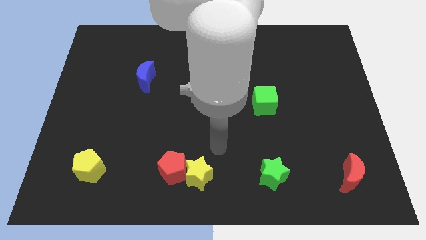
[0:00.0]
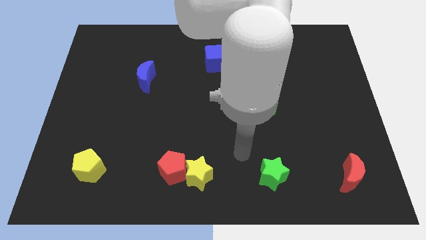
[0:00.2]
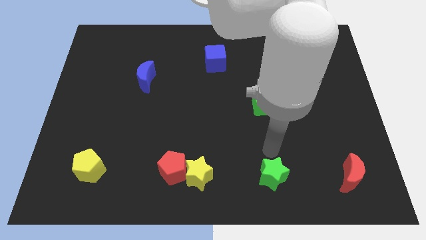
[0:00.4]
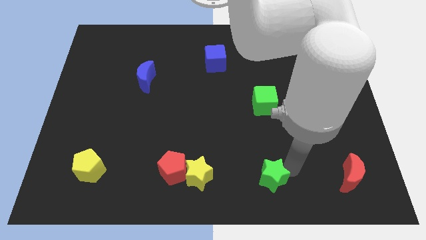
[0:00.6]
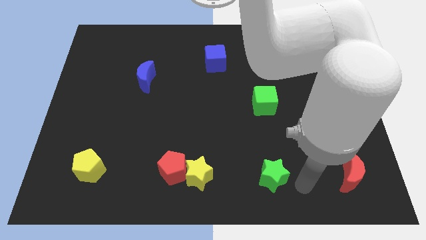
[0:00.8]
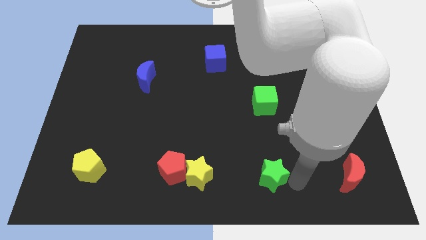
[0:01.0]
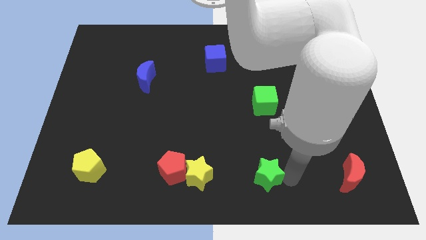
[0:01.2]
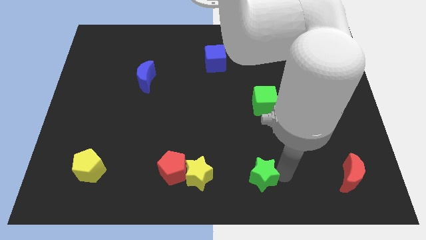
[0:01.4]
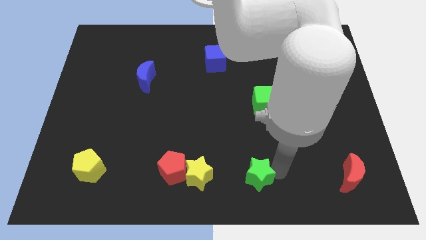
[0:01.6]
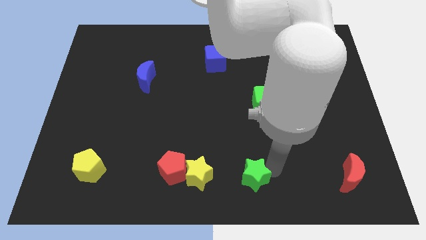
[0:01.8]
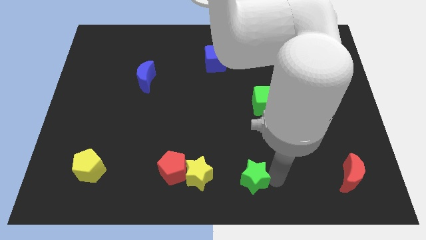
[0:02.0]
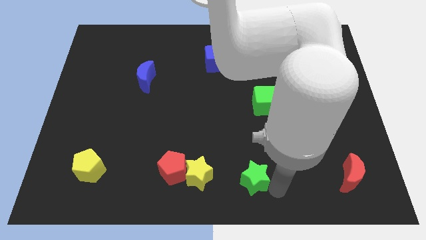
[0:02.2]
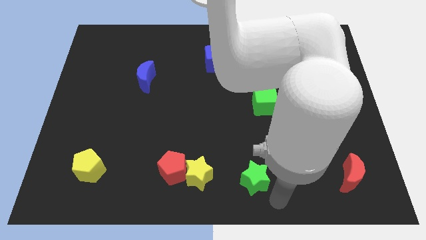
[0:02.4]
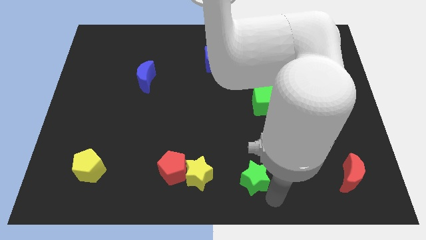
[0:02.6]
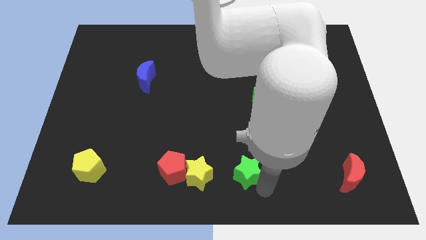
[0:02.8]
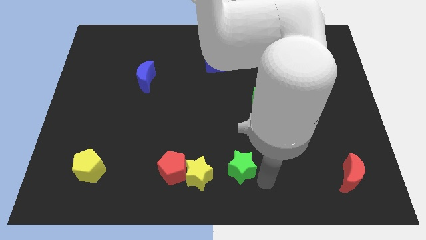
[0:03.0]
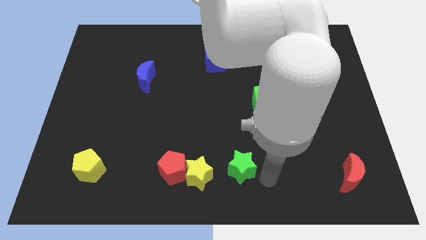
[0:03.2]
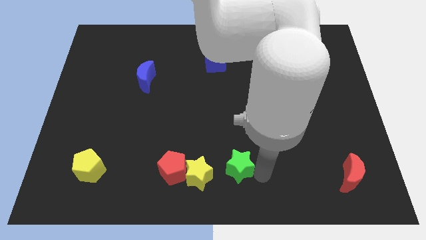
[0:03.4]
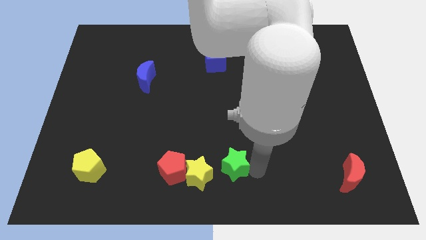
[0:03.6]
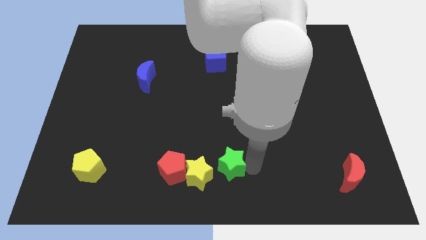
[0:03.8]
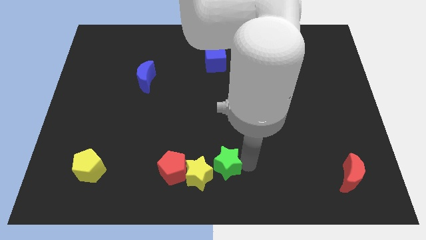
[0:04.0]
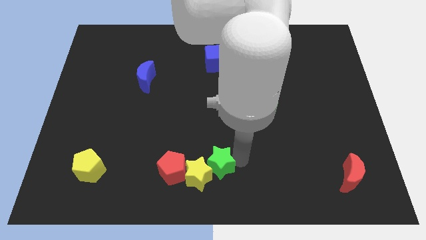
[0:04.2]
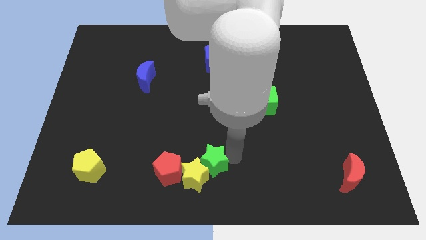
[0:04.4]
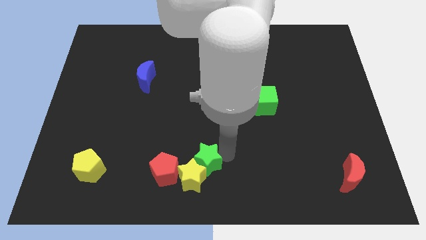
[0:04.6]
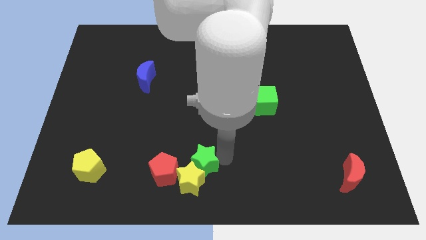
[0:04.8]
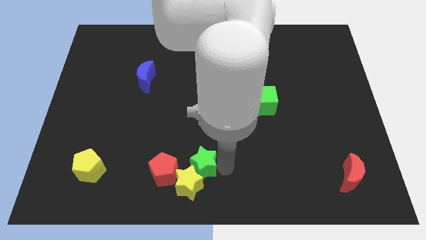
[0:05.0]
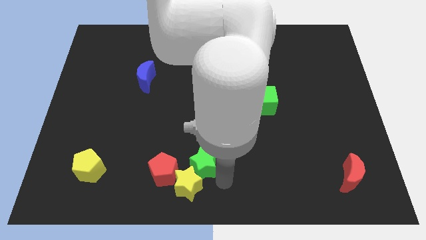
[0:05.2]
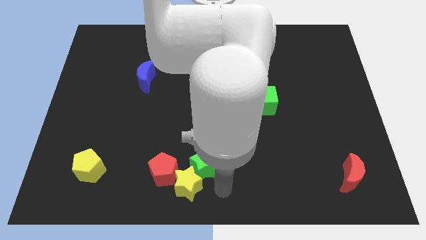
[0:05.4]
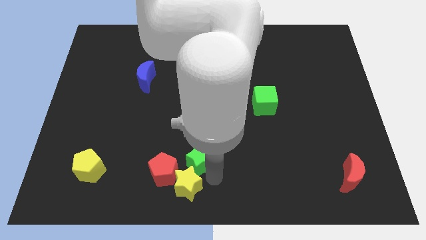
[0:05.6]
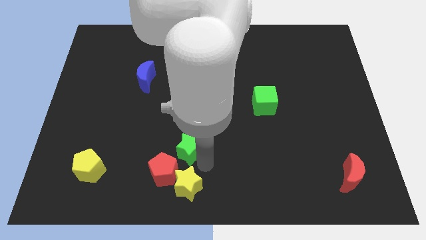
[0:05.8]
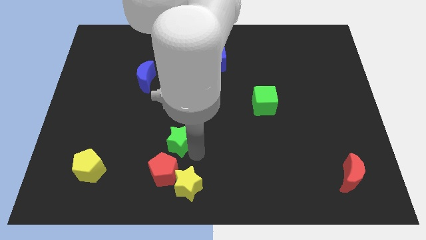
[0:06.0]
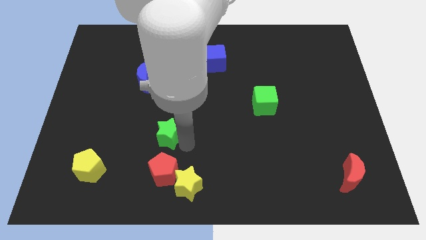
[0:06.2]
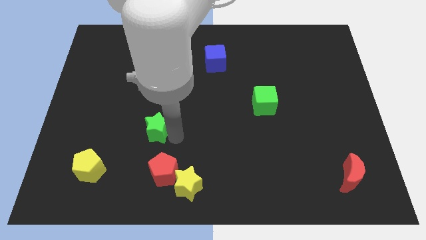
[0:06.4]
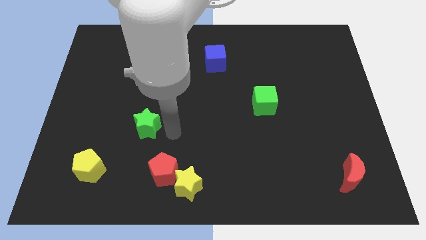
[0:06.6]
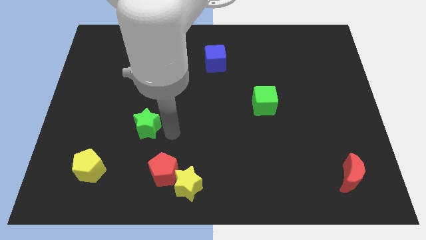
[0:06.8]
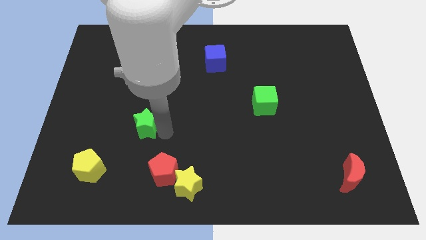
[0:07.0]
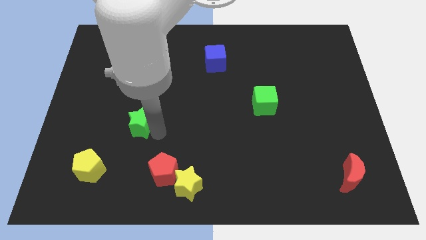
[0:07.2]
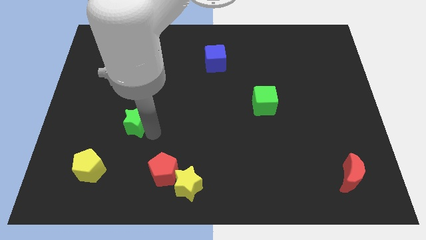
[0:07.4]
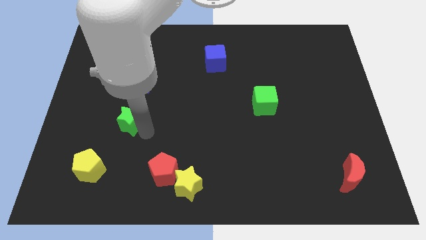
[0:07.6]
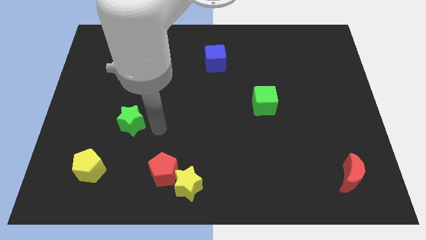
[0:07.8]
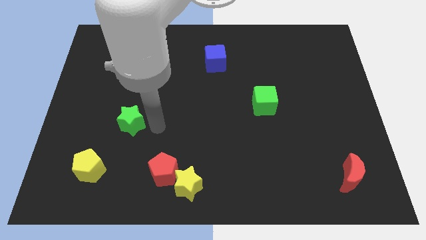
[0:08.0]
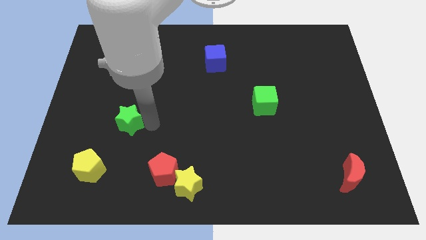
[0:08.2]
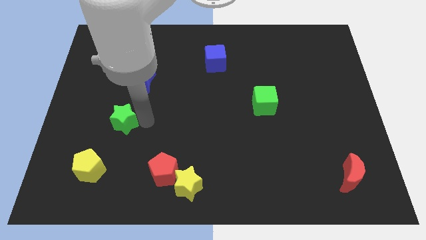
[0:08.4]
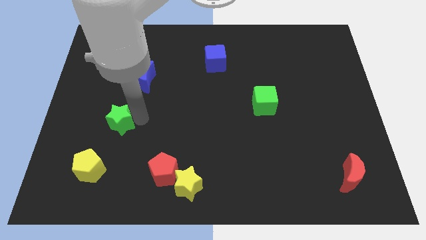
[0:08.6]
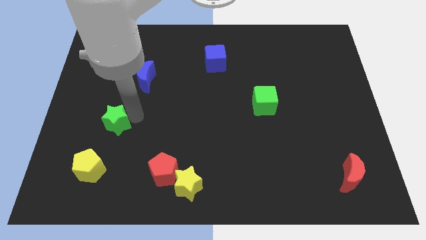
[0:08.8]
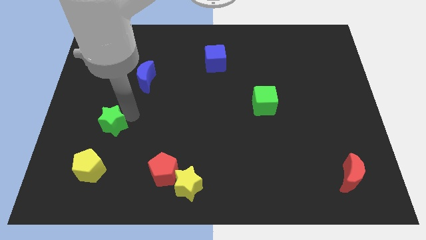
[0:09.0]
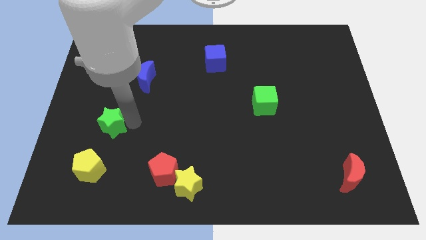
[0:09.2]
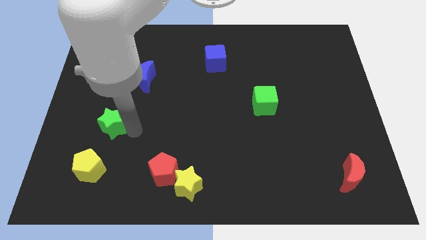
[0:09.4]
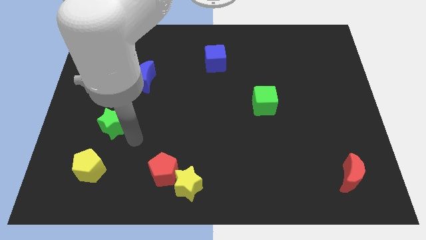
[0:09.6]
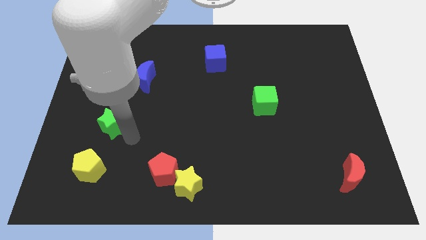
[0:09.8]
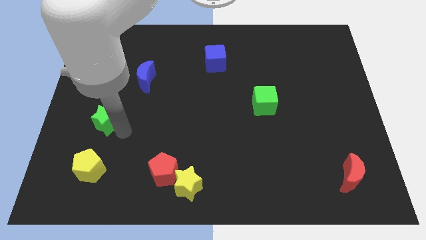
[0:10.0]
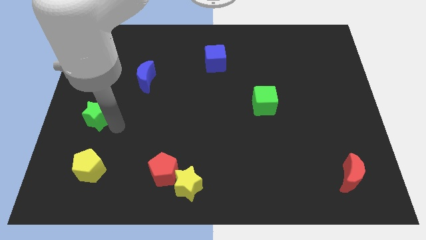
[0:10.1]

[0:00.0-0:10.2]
put the green star to the left side

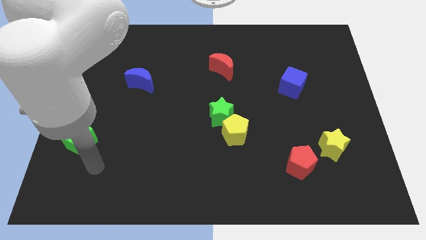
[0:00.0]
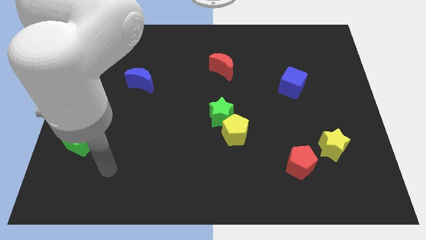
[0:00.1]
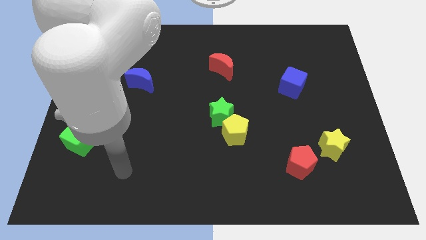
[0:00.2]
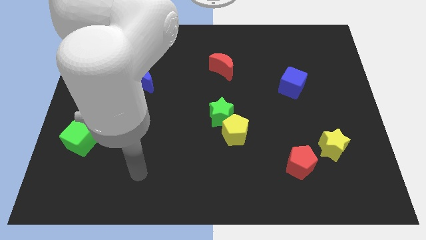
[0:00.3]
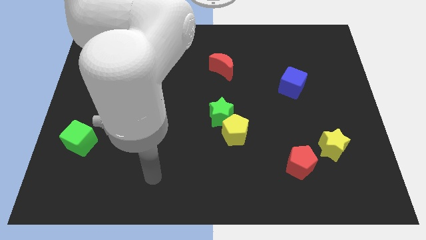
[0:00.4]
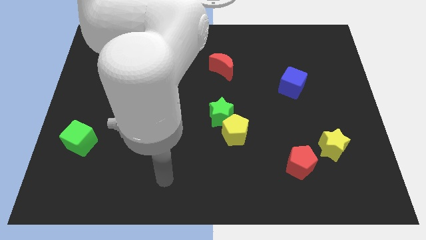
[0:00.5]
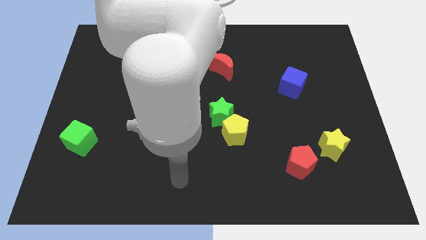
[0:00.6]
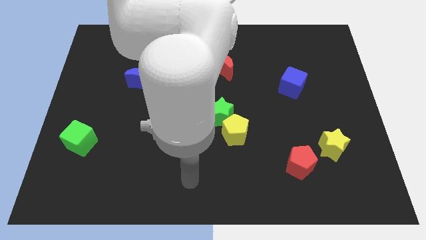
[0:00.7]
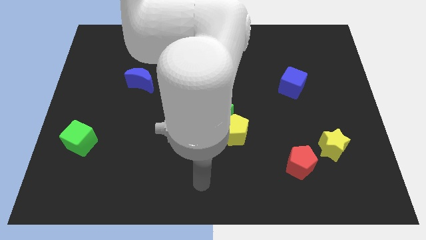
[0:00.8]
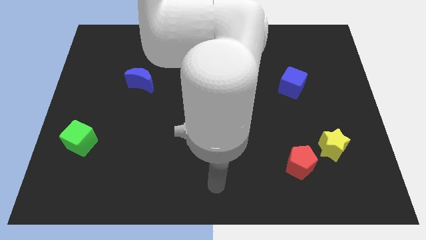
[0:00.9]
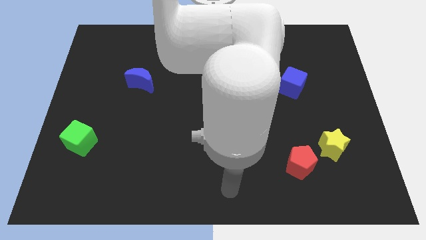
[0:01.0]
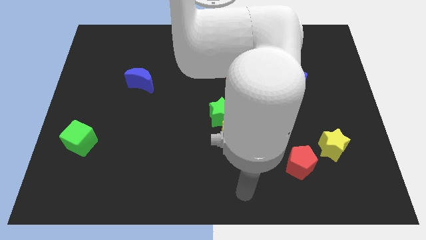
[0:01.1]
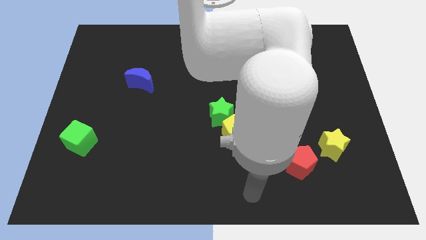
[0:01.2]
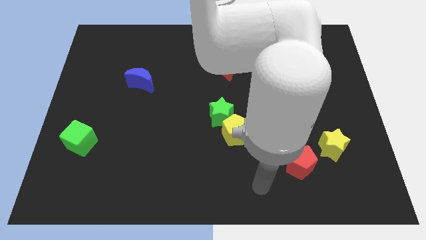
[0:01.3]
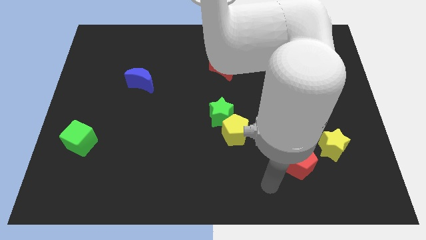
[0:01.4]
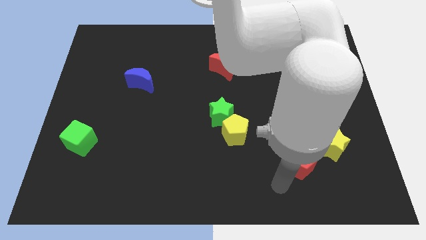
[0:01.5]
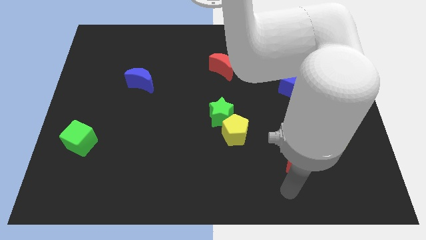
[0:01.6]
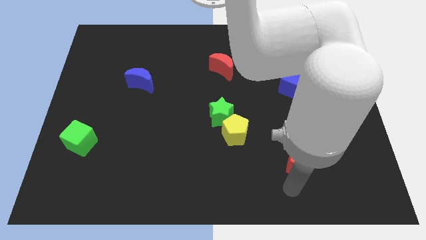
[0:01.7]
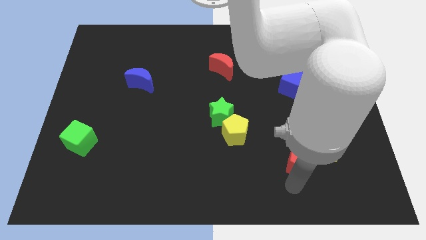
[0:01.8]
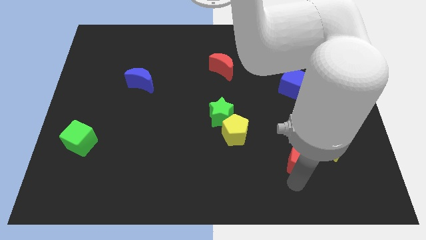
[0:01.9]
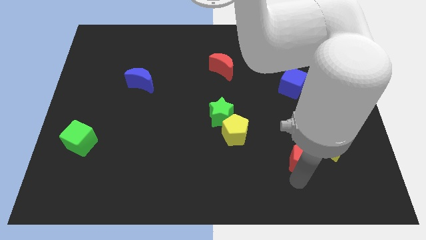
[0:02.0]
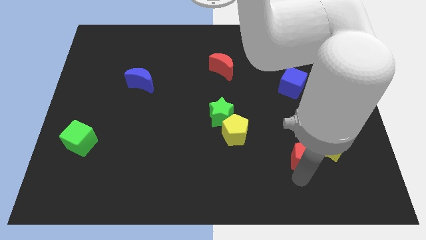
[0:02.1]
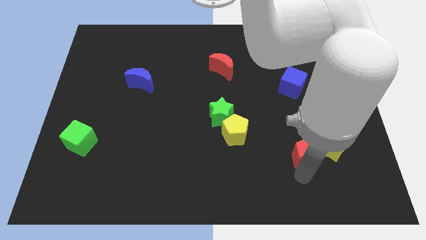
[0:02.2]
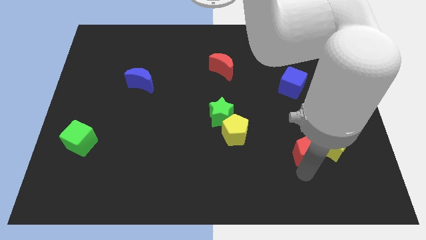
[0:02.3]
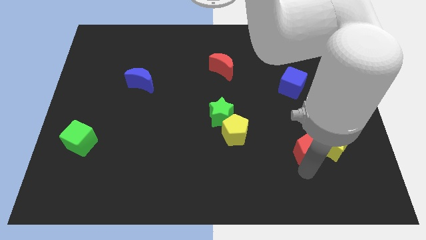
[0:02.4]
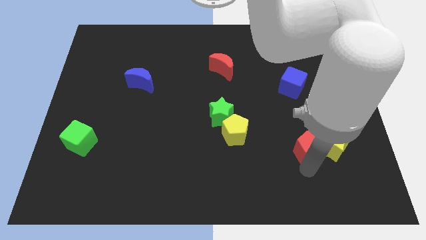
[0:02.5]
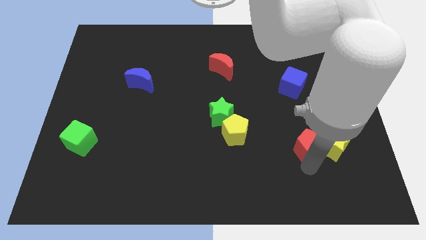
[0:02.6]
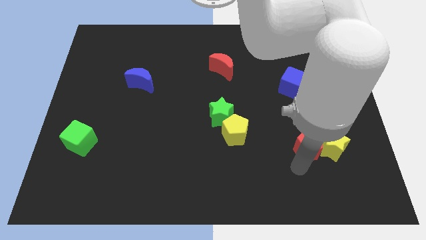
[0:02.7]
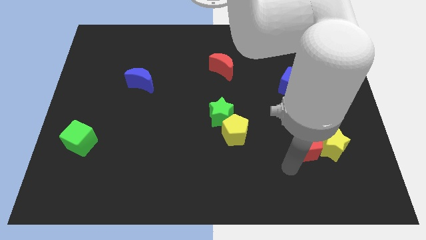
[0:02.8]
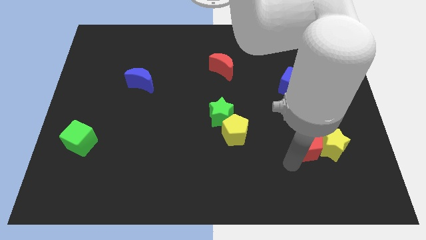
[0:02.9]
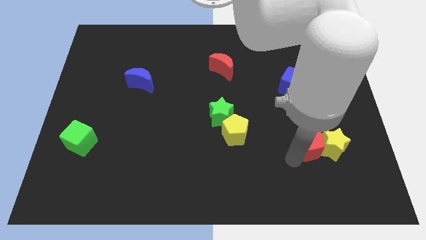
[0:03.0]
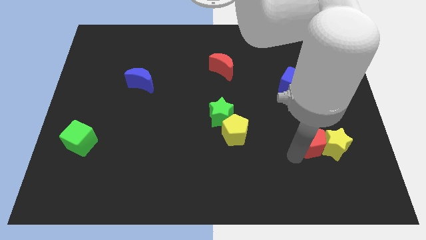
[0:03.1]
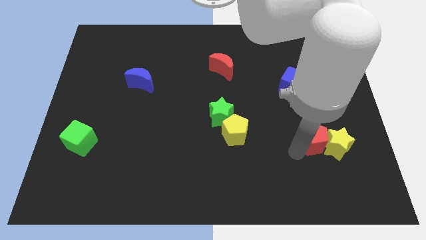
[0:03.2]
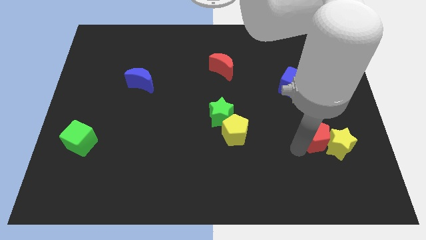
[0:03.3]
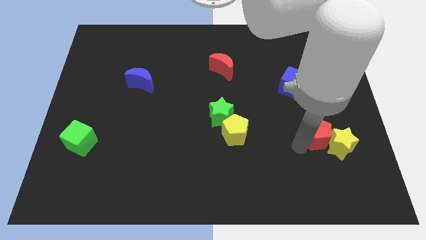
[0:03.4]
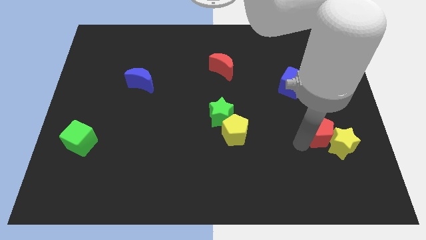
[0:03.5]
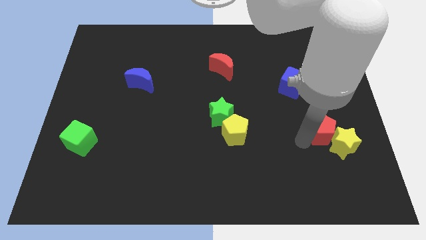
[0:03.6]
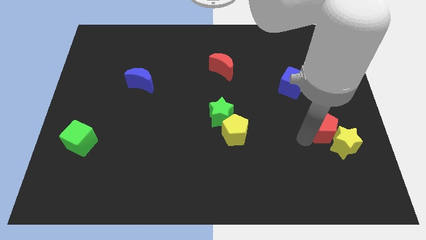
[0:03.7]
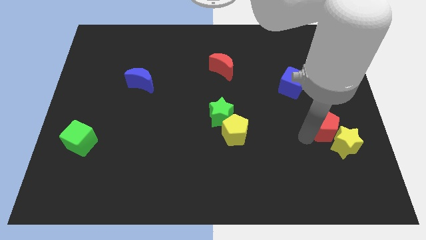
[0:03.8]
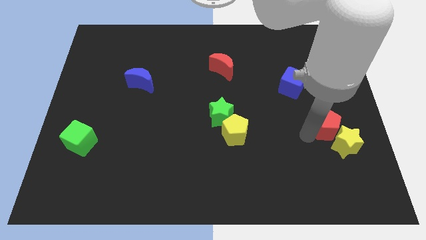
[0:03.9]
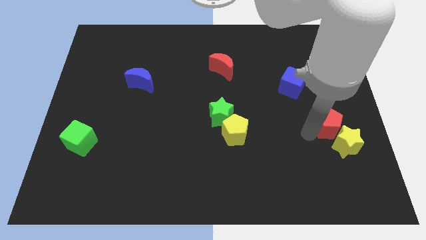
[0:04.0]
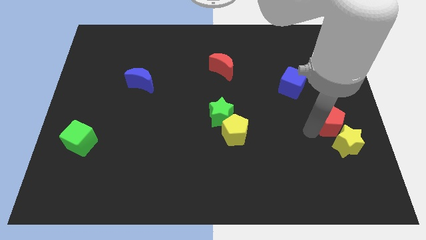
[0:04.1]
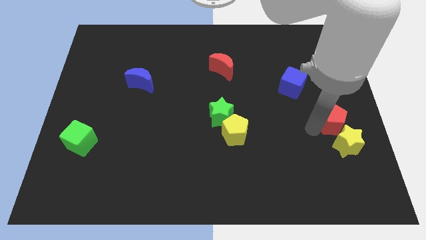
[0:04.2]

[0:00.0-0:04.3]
put the red pentagon to the right side
